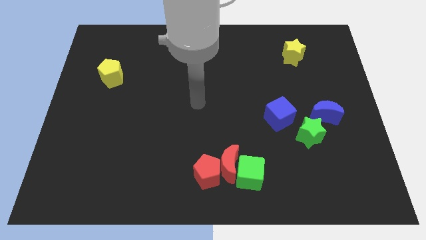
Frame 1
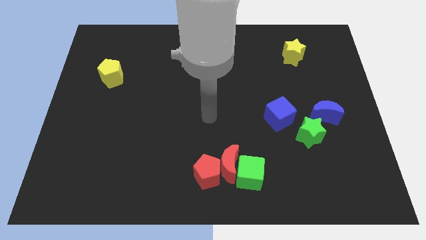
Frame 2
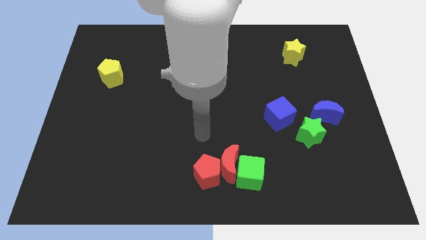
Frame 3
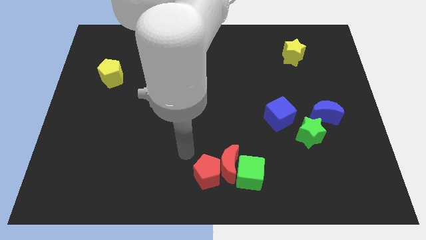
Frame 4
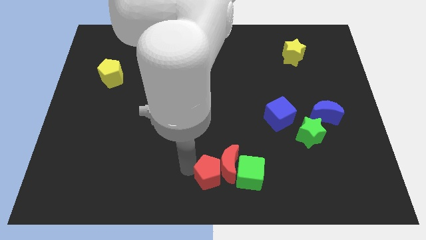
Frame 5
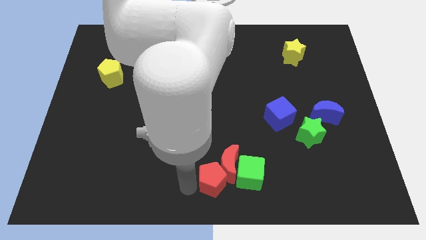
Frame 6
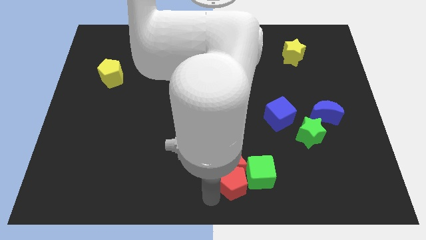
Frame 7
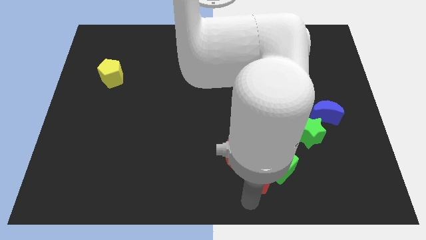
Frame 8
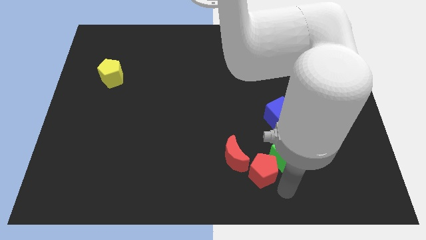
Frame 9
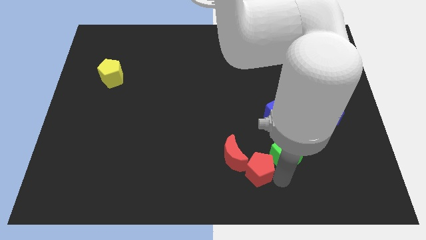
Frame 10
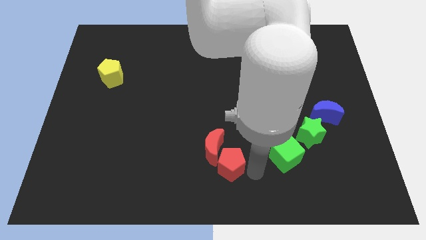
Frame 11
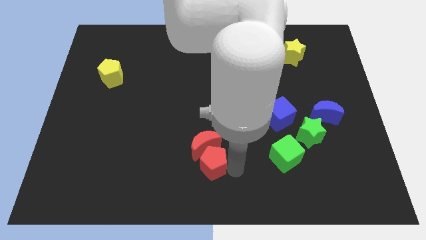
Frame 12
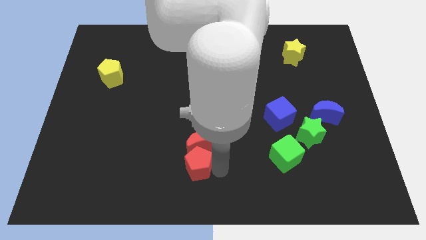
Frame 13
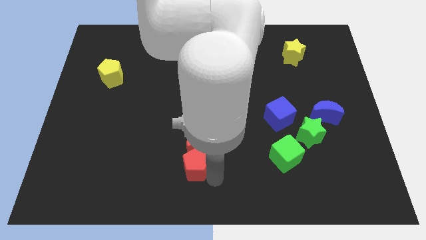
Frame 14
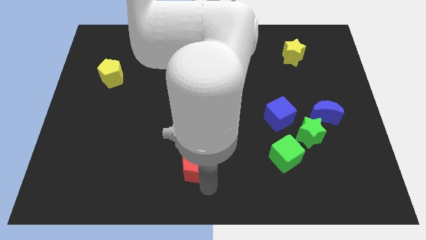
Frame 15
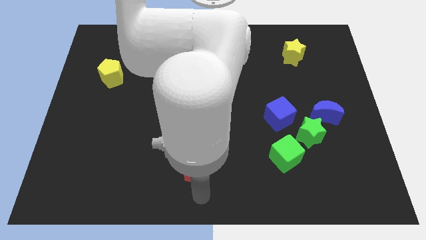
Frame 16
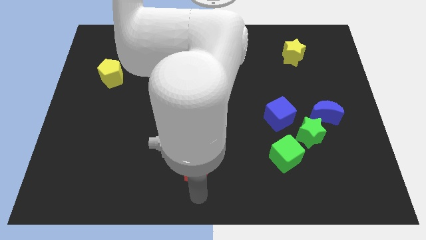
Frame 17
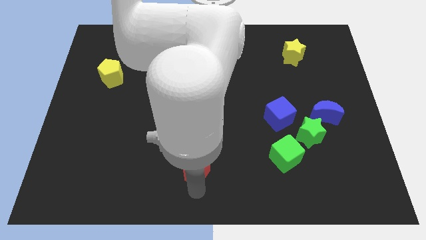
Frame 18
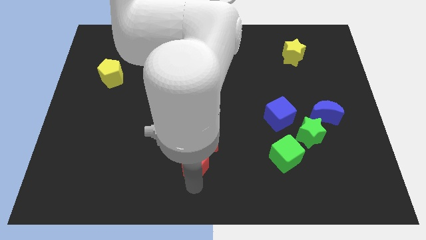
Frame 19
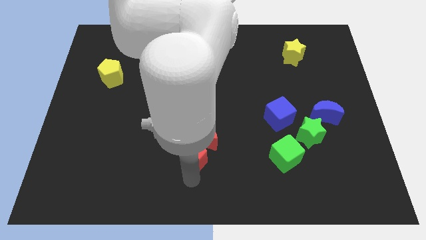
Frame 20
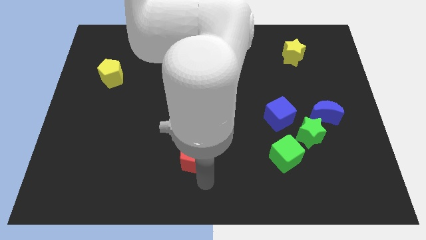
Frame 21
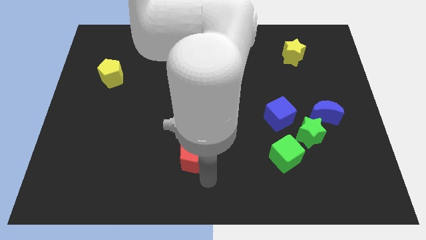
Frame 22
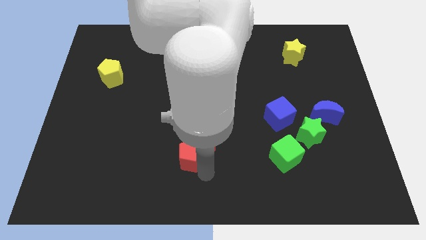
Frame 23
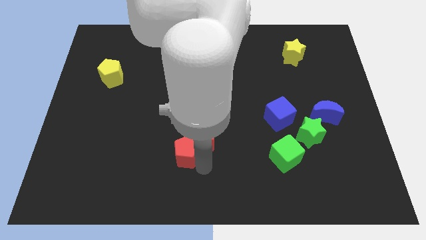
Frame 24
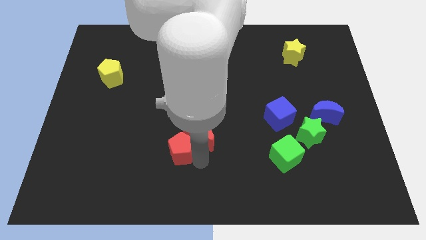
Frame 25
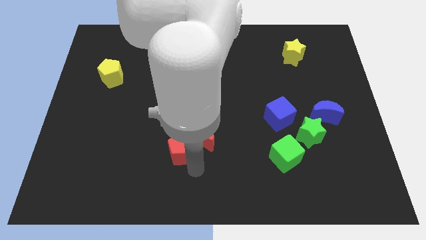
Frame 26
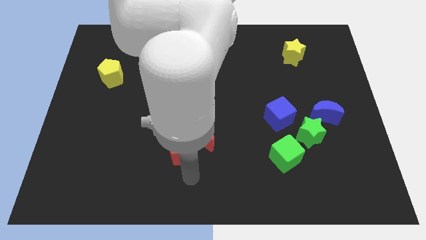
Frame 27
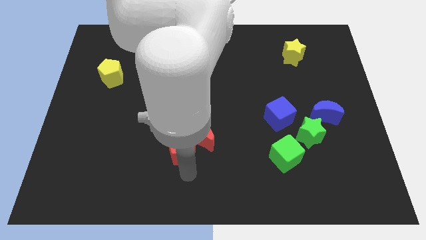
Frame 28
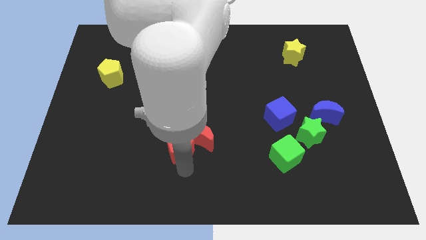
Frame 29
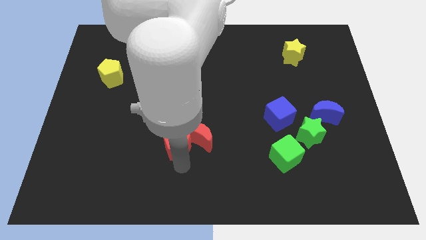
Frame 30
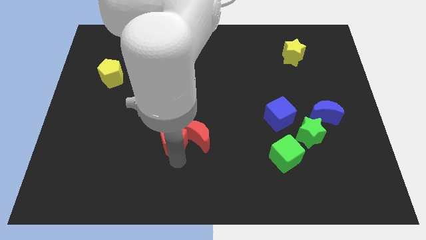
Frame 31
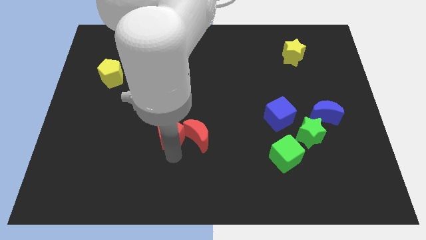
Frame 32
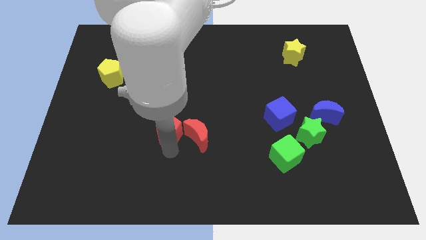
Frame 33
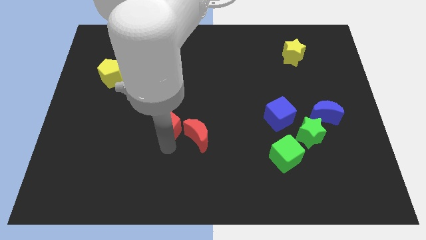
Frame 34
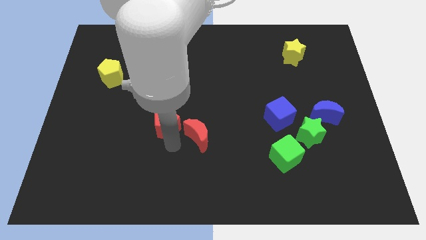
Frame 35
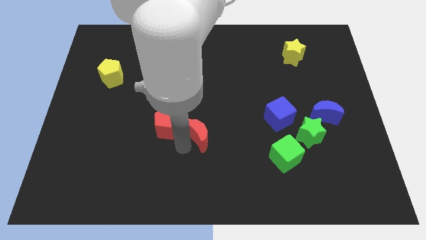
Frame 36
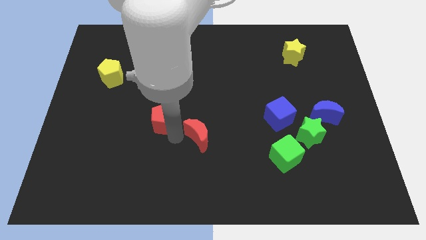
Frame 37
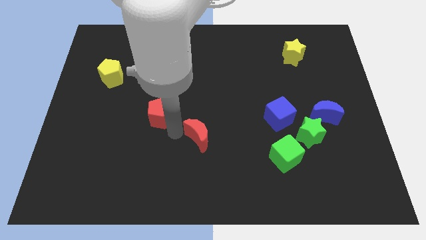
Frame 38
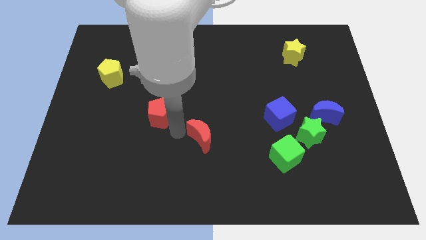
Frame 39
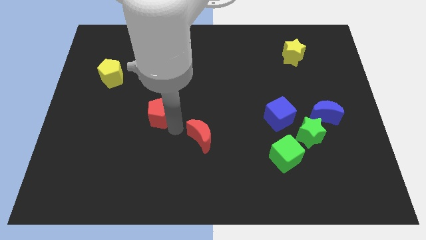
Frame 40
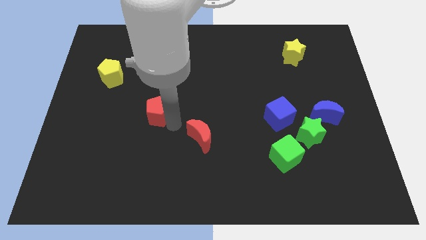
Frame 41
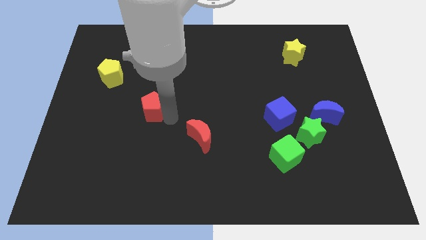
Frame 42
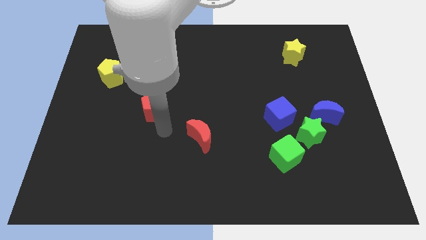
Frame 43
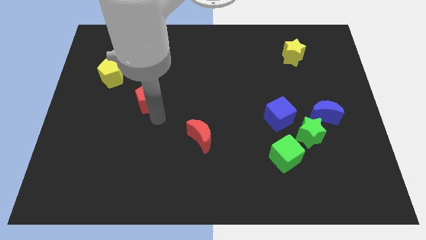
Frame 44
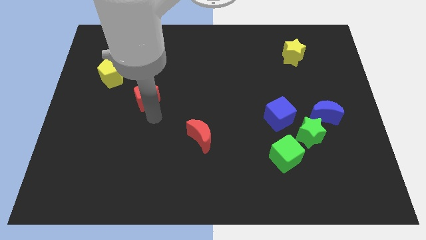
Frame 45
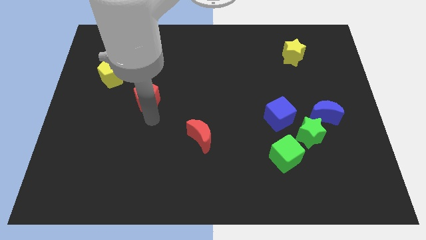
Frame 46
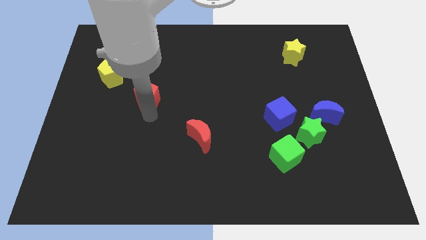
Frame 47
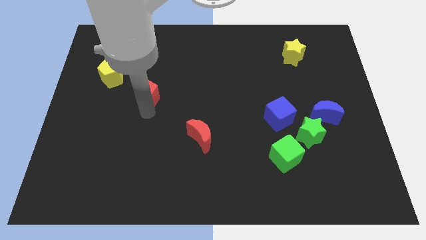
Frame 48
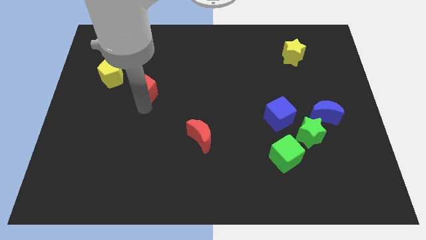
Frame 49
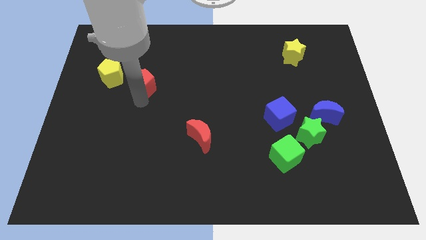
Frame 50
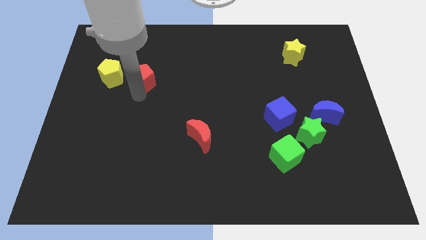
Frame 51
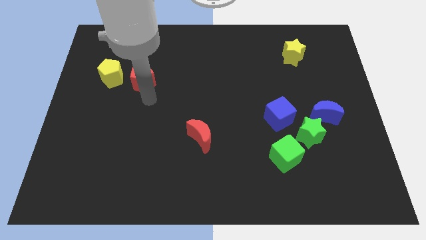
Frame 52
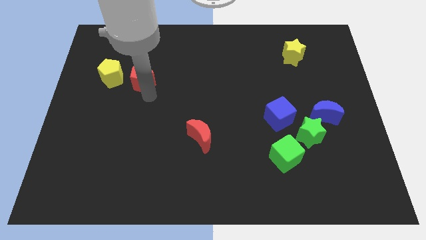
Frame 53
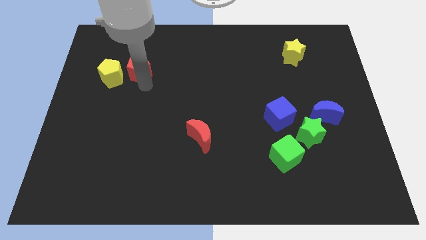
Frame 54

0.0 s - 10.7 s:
slide the red pentagon to the top right of the yellow pentagon

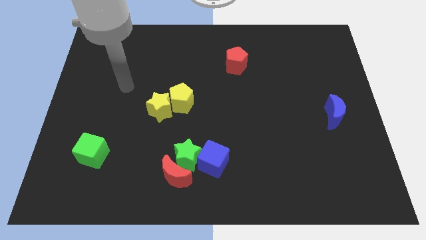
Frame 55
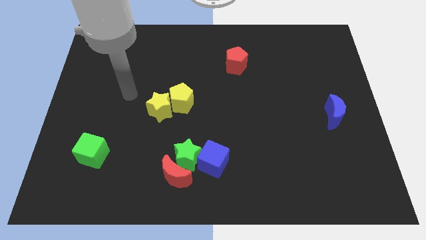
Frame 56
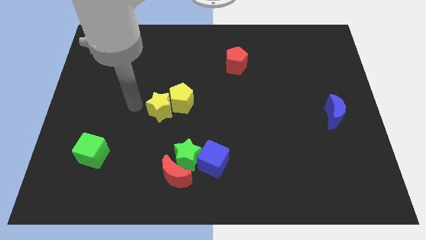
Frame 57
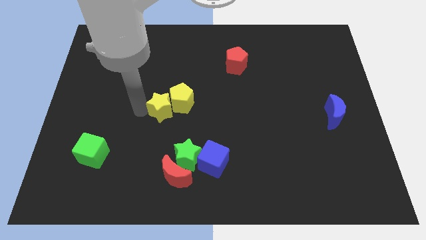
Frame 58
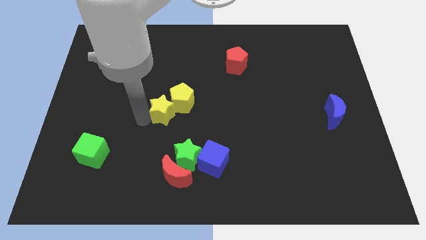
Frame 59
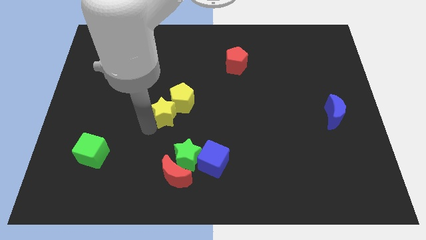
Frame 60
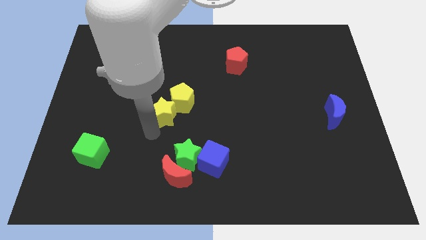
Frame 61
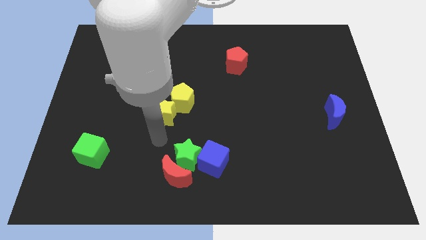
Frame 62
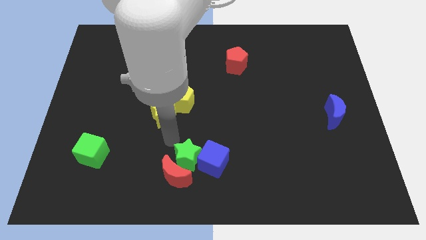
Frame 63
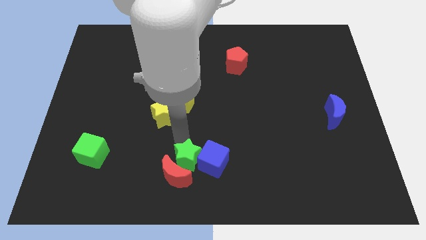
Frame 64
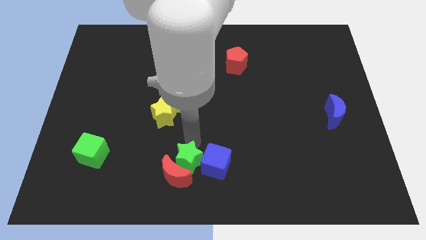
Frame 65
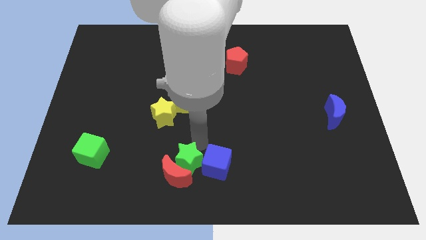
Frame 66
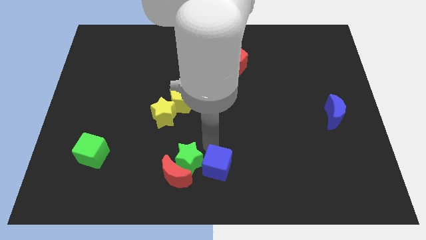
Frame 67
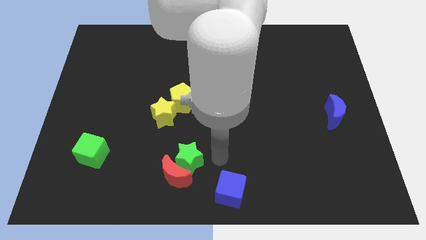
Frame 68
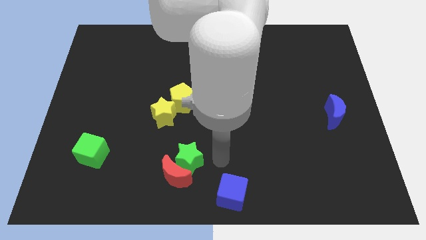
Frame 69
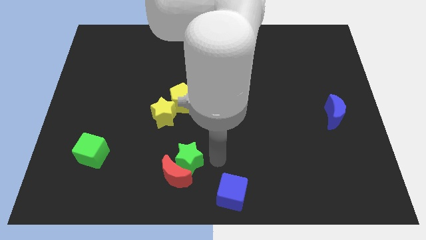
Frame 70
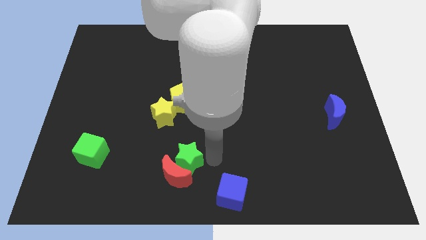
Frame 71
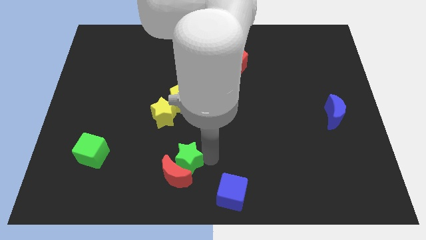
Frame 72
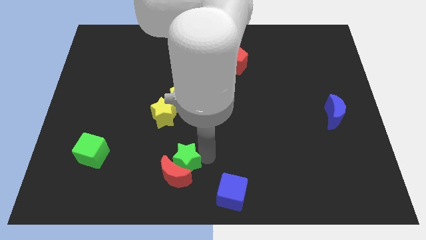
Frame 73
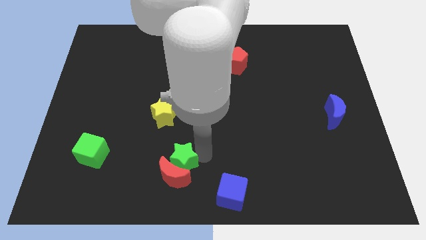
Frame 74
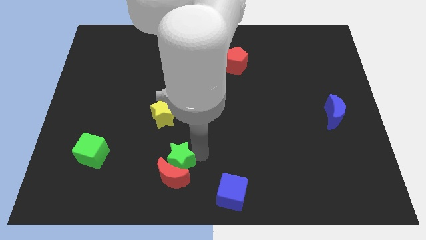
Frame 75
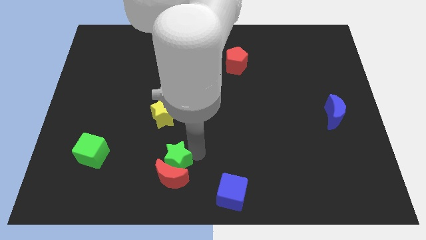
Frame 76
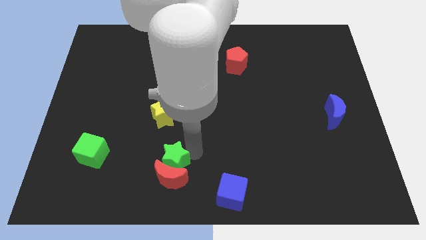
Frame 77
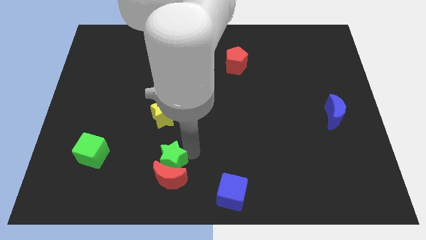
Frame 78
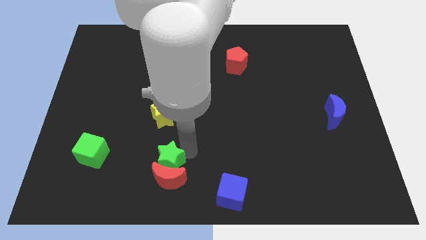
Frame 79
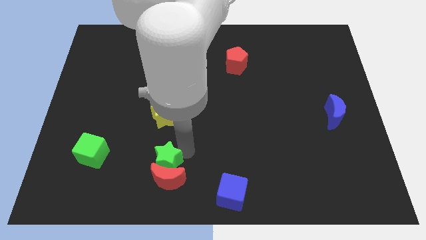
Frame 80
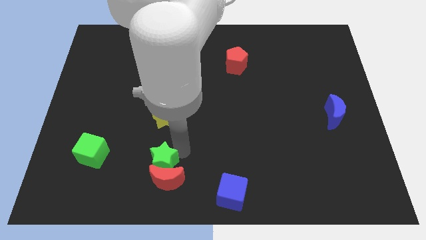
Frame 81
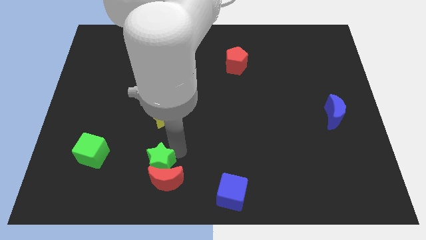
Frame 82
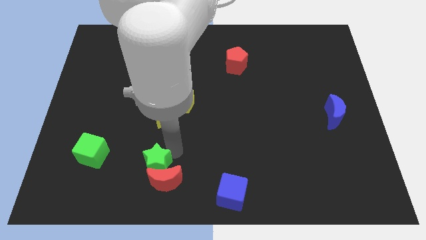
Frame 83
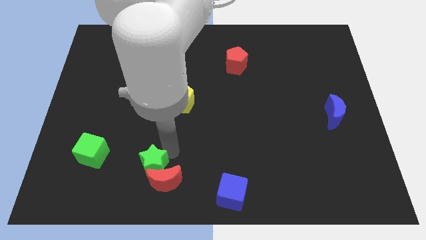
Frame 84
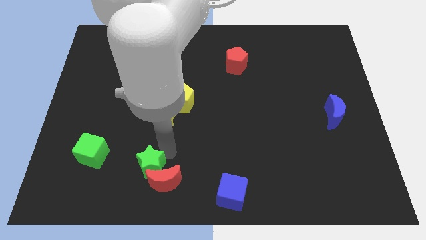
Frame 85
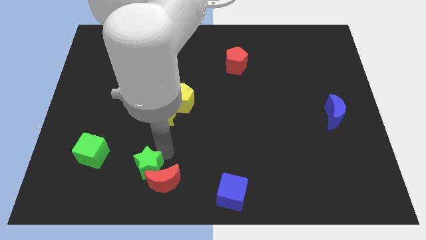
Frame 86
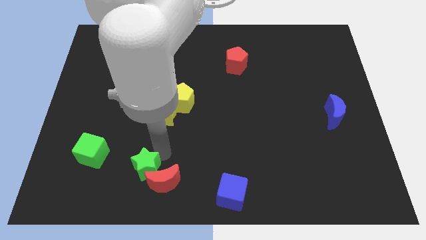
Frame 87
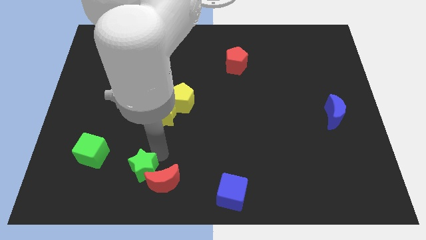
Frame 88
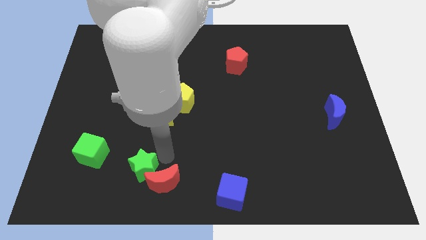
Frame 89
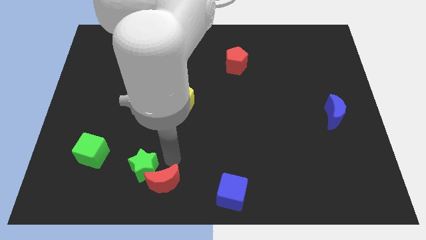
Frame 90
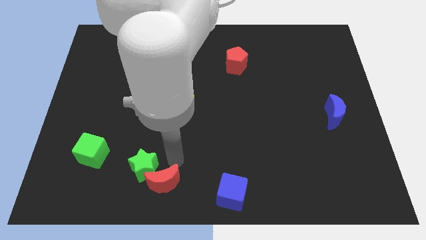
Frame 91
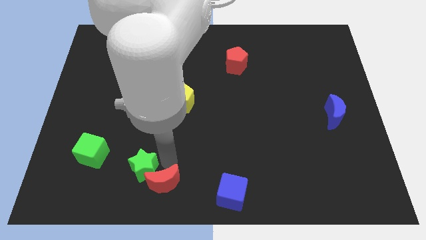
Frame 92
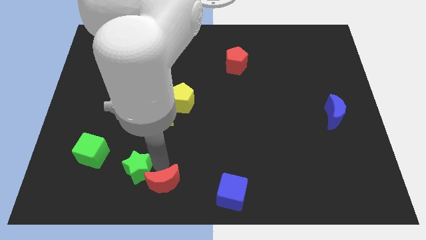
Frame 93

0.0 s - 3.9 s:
push the green star diagonally down and to the right of the green cube
